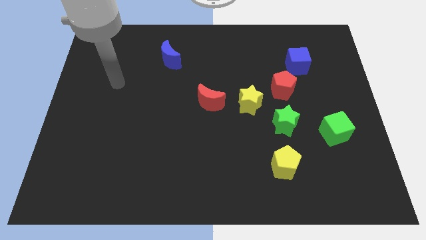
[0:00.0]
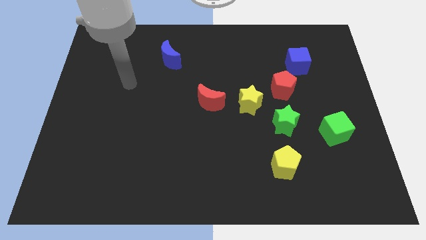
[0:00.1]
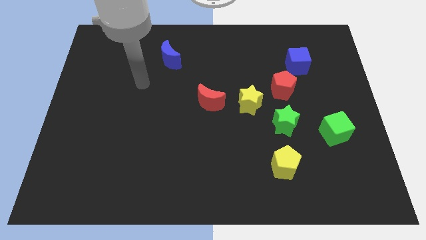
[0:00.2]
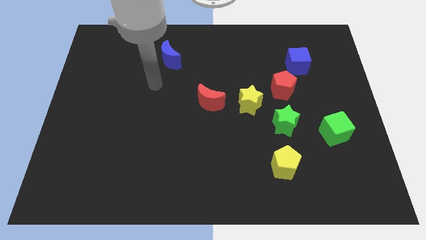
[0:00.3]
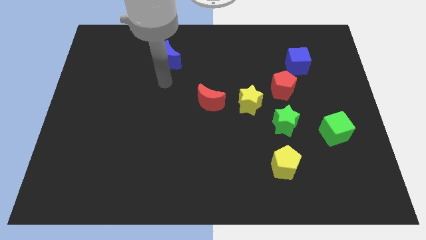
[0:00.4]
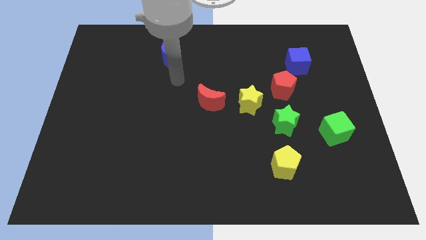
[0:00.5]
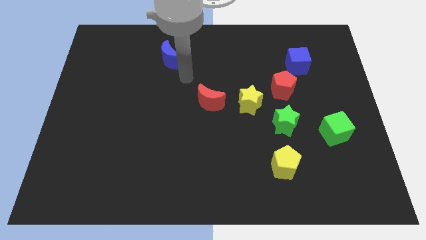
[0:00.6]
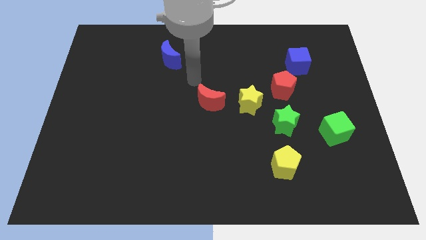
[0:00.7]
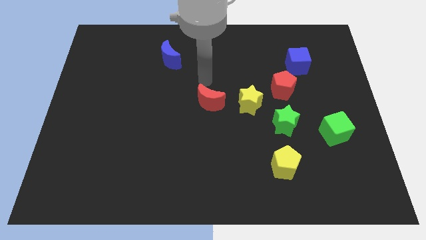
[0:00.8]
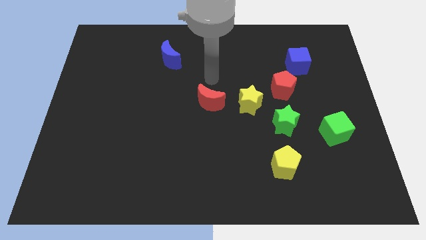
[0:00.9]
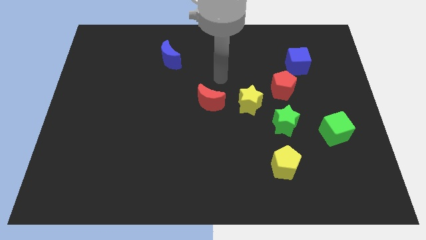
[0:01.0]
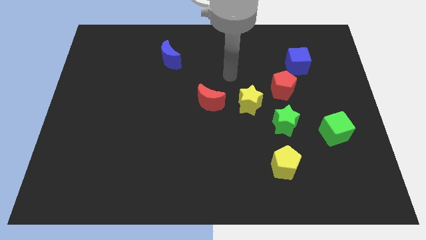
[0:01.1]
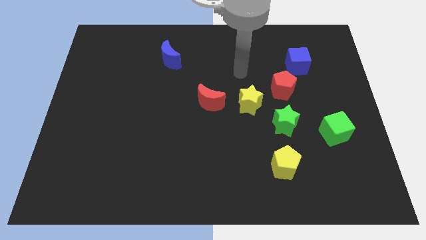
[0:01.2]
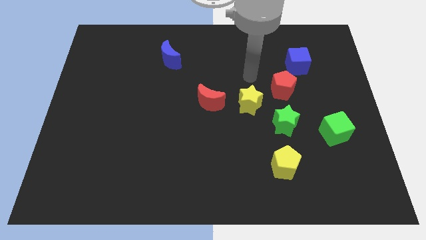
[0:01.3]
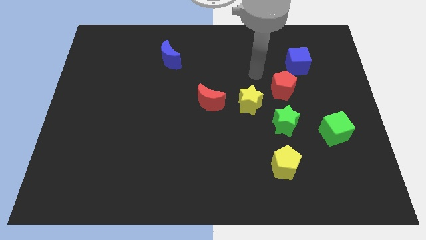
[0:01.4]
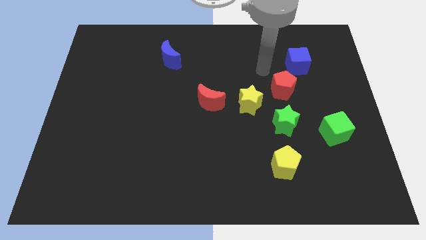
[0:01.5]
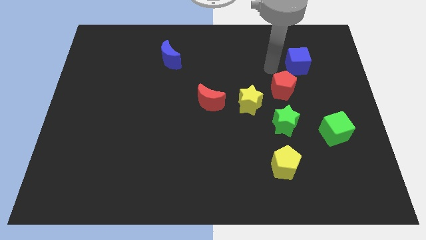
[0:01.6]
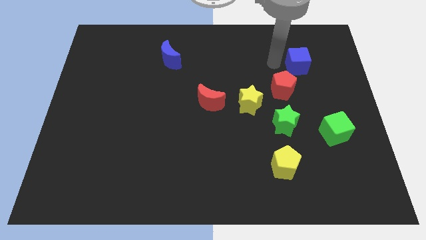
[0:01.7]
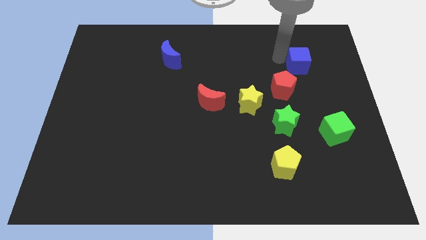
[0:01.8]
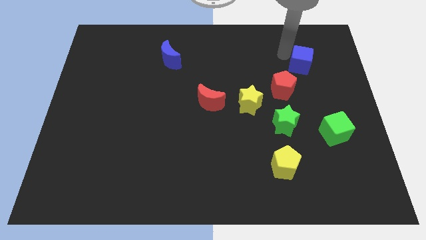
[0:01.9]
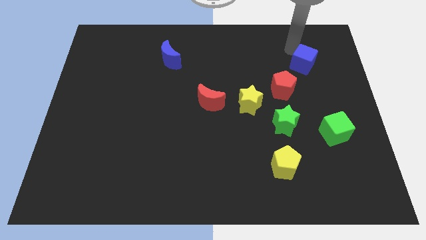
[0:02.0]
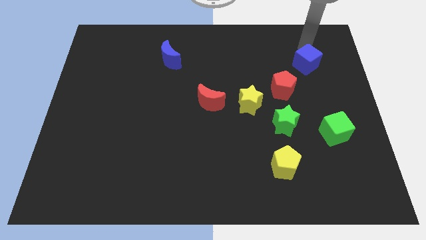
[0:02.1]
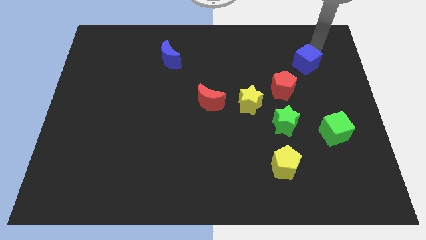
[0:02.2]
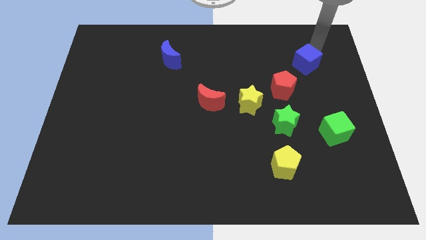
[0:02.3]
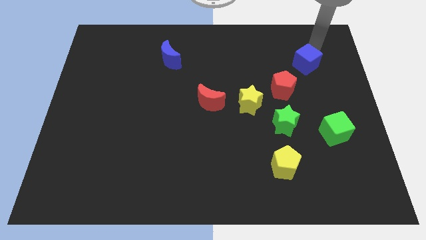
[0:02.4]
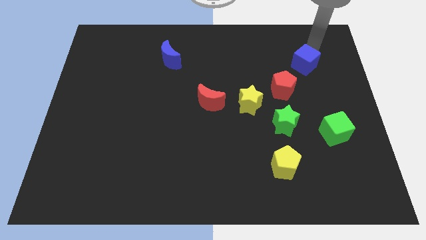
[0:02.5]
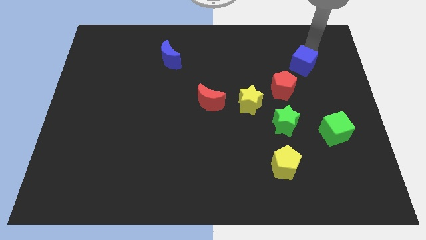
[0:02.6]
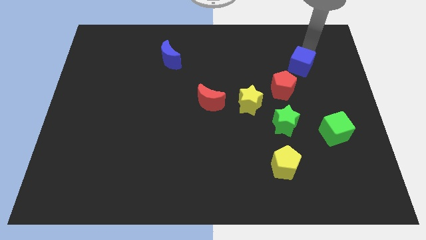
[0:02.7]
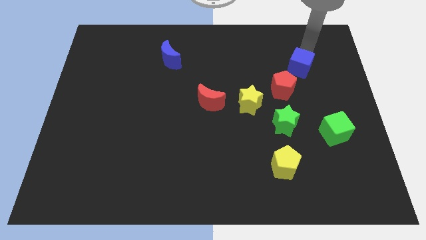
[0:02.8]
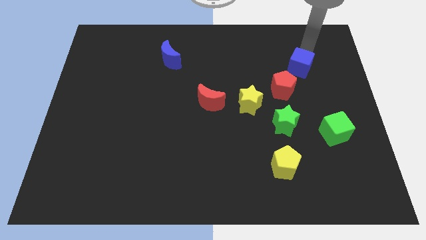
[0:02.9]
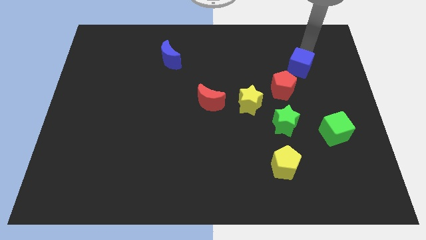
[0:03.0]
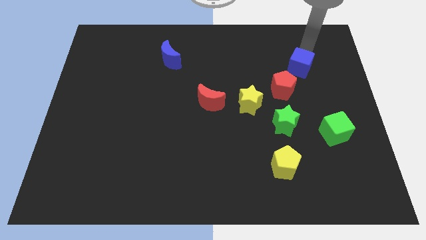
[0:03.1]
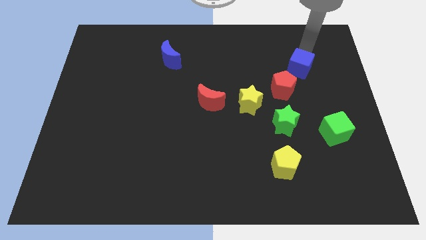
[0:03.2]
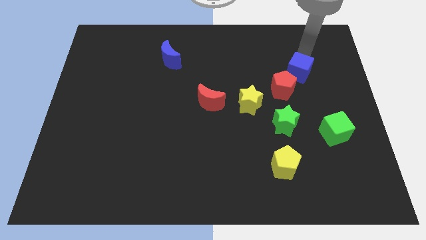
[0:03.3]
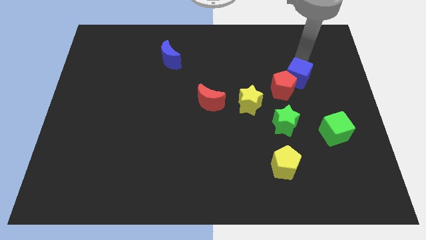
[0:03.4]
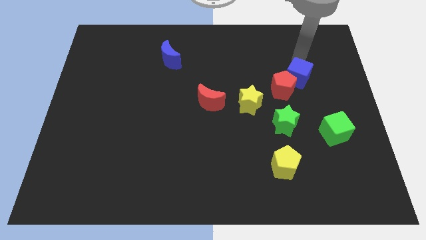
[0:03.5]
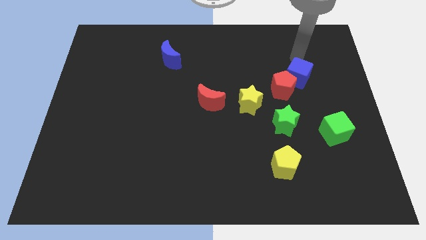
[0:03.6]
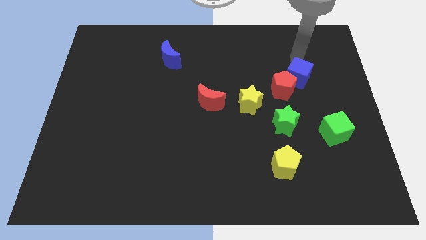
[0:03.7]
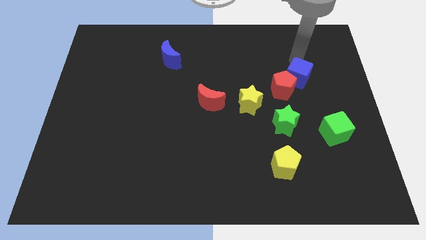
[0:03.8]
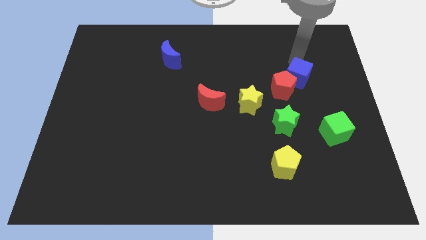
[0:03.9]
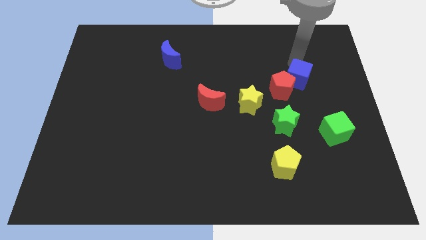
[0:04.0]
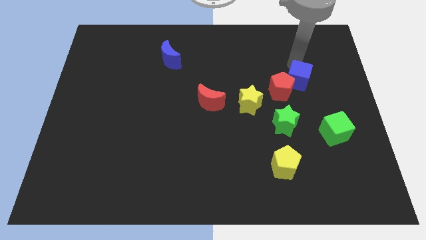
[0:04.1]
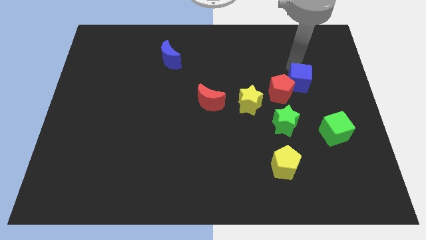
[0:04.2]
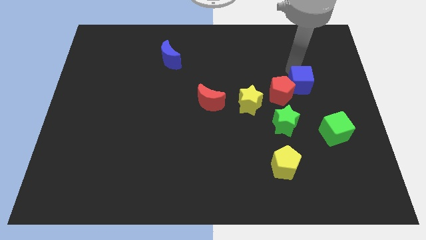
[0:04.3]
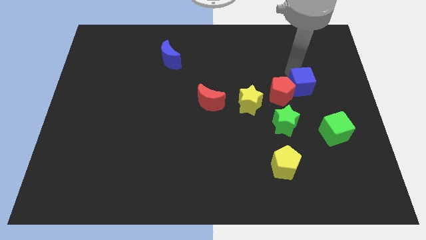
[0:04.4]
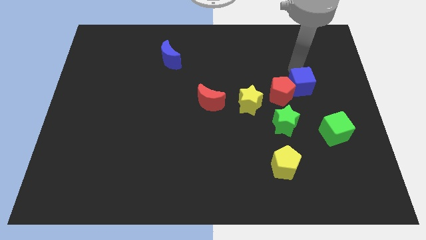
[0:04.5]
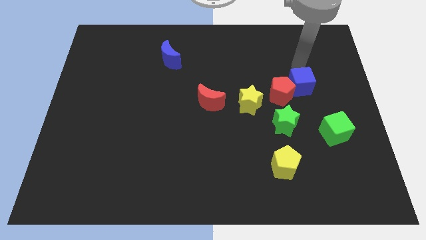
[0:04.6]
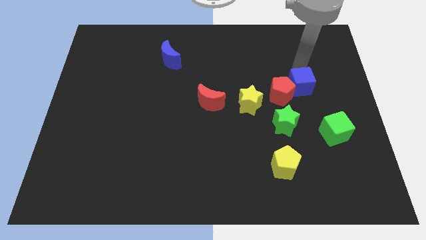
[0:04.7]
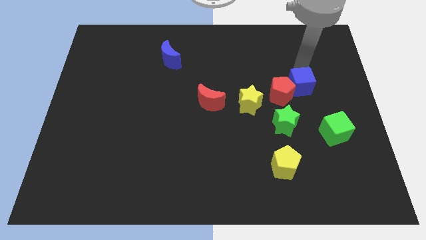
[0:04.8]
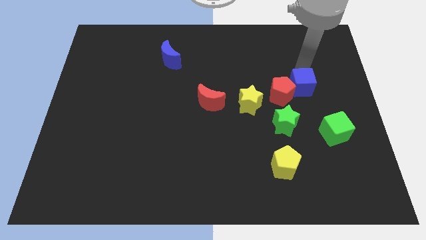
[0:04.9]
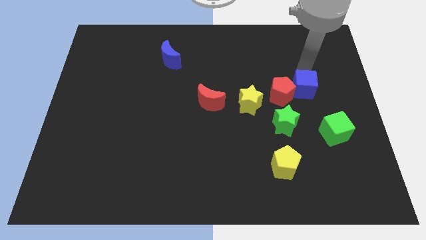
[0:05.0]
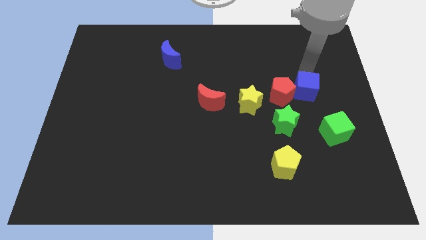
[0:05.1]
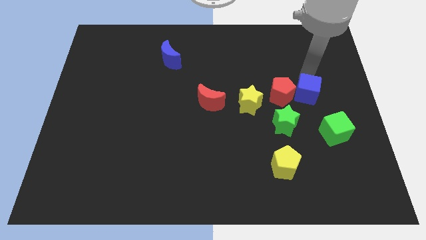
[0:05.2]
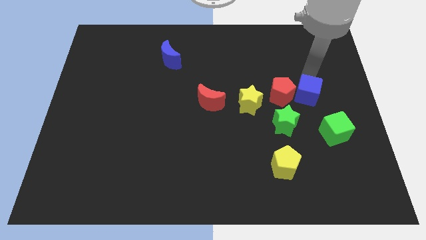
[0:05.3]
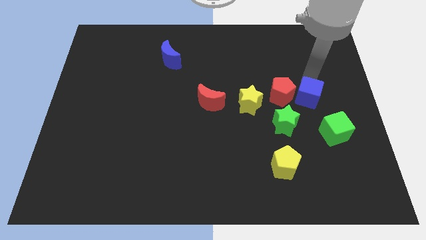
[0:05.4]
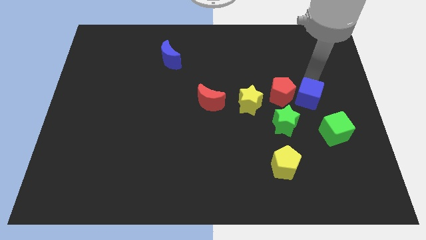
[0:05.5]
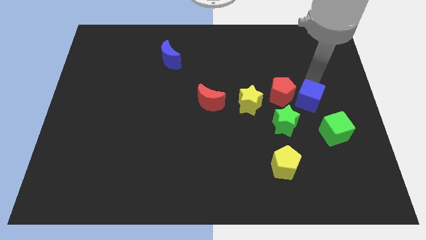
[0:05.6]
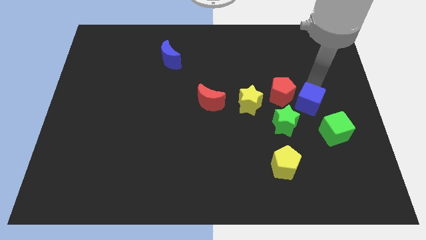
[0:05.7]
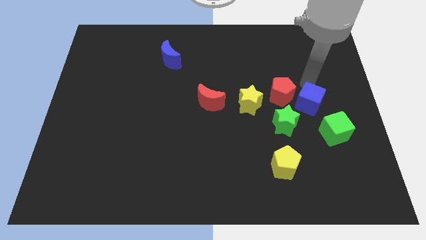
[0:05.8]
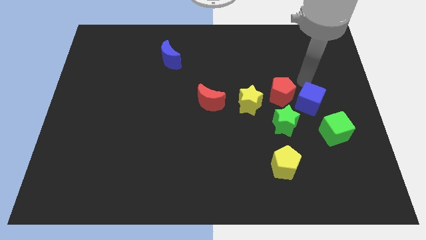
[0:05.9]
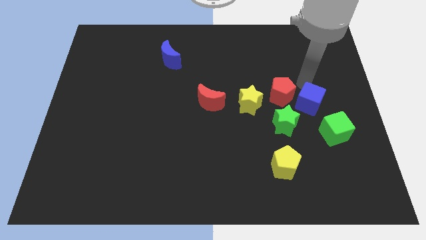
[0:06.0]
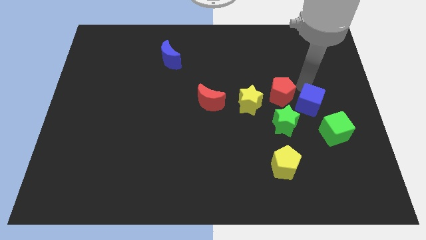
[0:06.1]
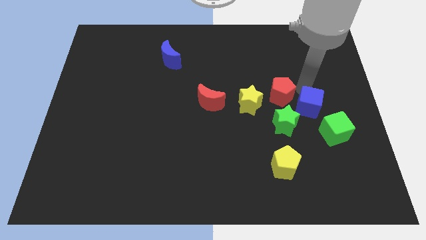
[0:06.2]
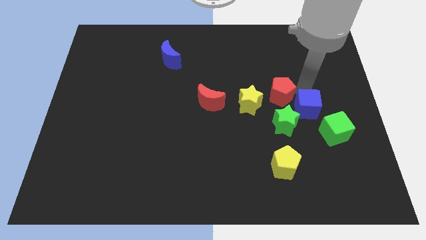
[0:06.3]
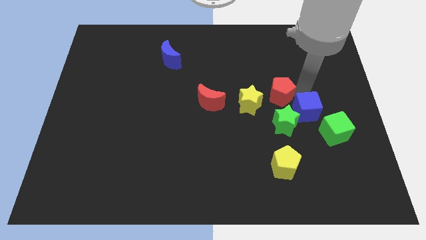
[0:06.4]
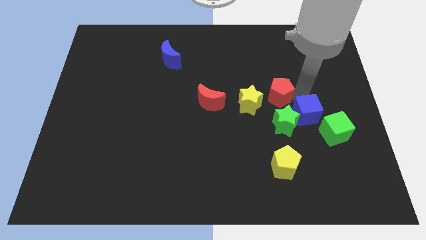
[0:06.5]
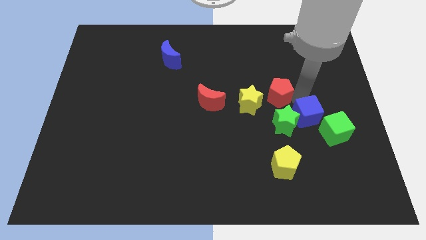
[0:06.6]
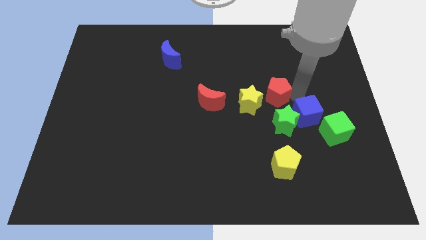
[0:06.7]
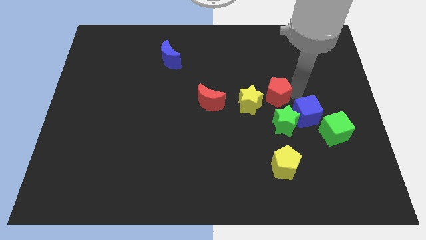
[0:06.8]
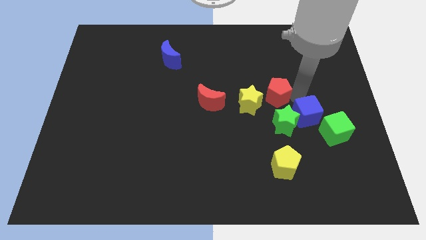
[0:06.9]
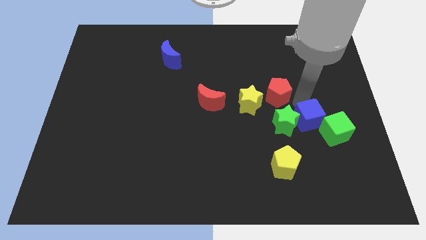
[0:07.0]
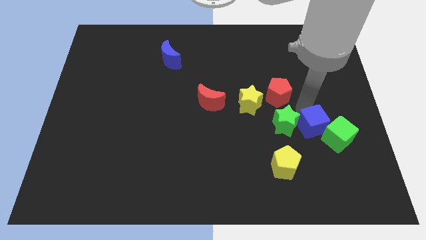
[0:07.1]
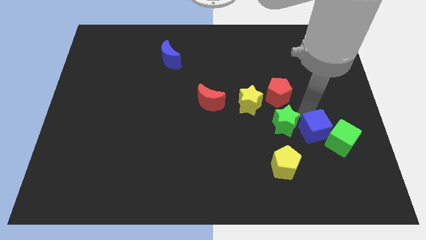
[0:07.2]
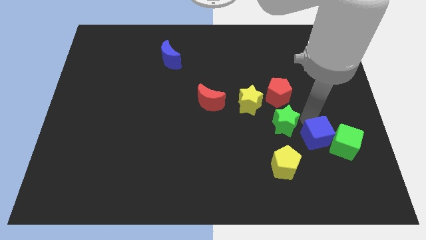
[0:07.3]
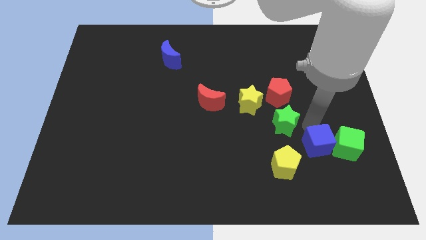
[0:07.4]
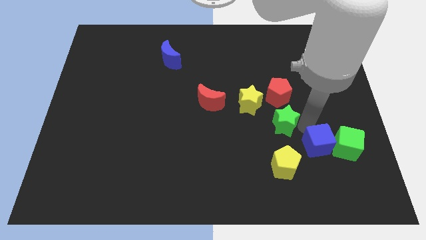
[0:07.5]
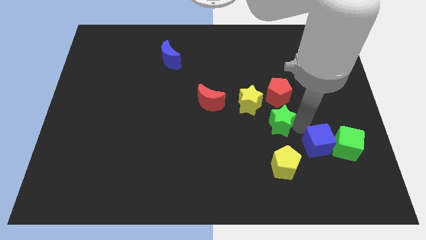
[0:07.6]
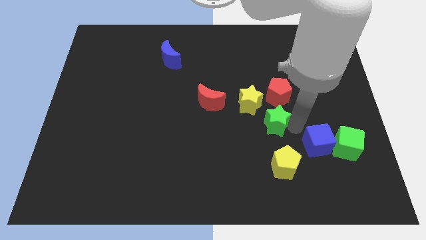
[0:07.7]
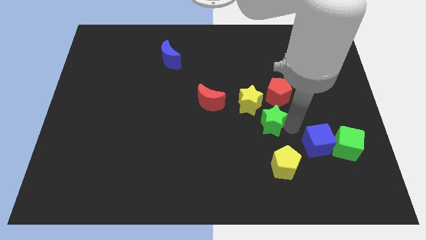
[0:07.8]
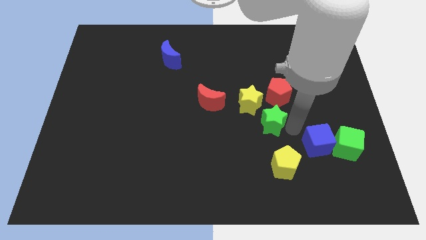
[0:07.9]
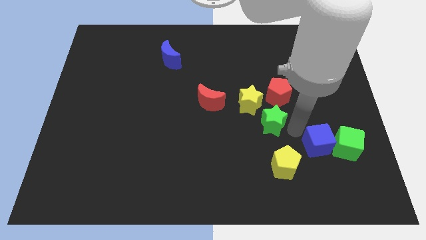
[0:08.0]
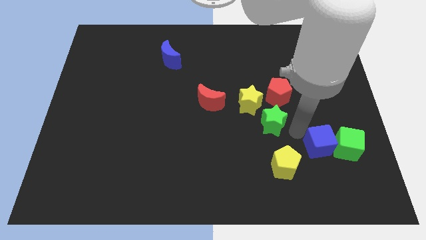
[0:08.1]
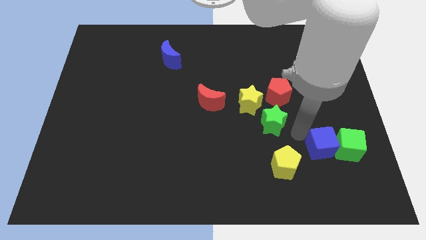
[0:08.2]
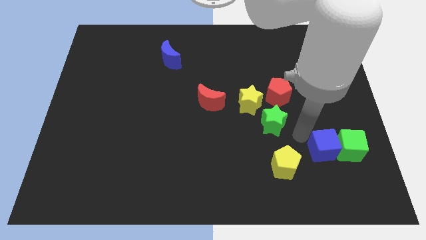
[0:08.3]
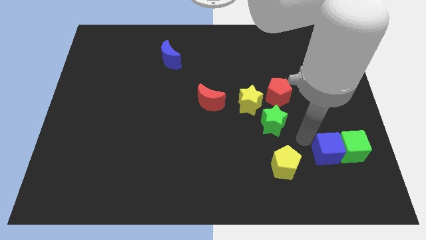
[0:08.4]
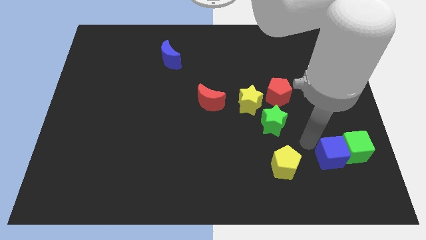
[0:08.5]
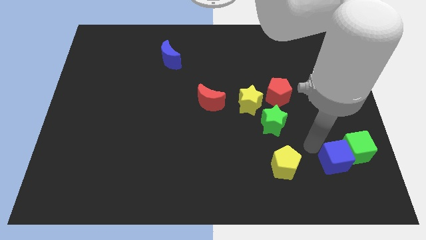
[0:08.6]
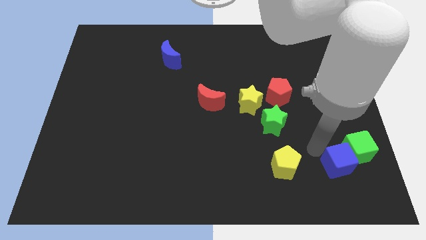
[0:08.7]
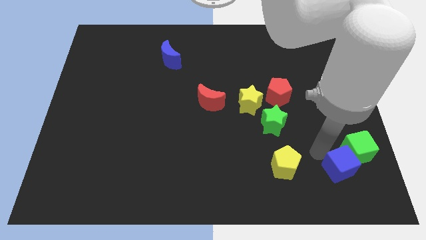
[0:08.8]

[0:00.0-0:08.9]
slide the blue cube below the green cube
